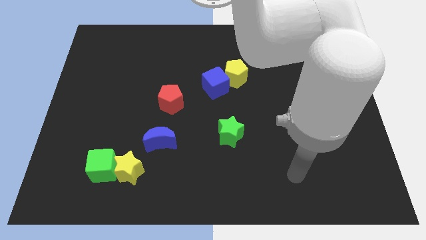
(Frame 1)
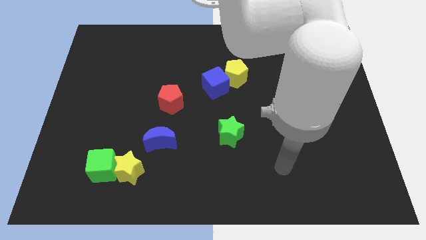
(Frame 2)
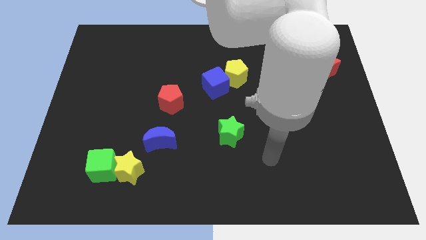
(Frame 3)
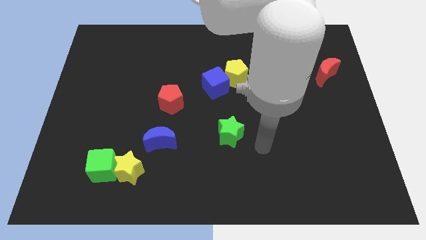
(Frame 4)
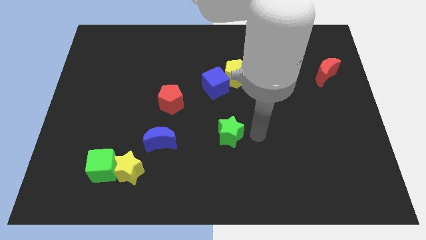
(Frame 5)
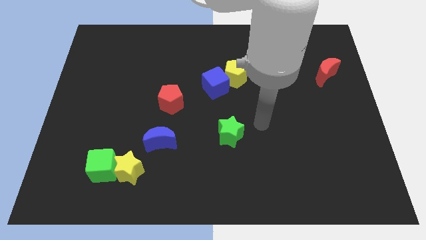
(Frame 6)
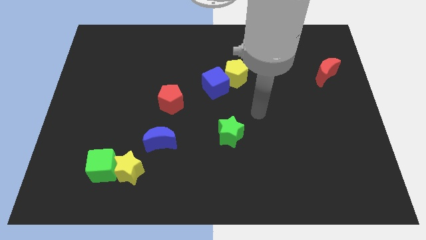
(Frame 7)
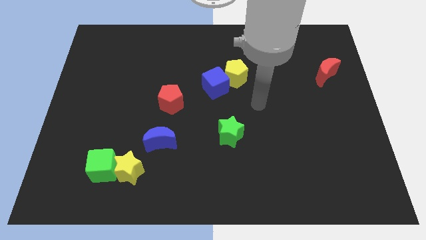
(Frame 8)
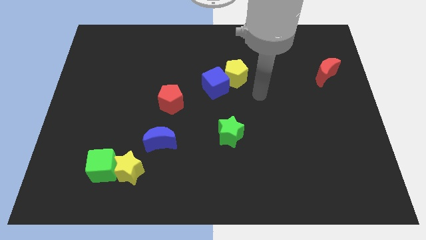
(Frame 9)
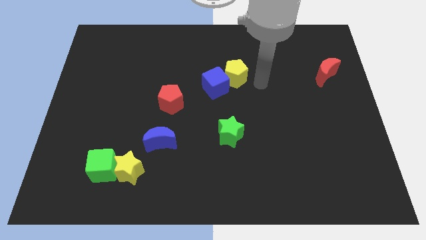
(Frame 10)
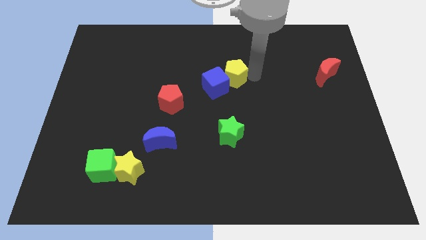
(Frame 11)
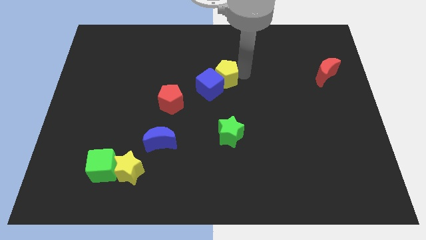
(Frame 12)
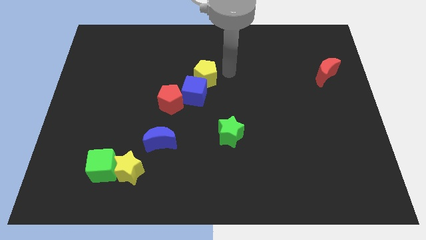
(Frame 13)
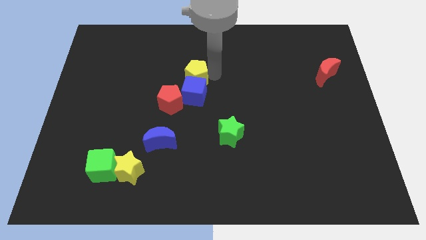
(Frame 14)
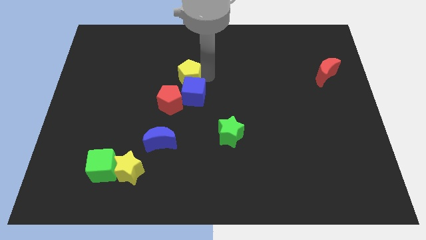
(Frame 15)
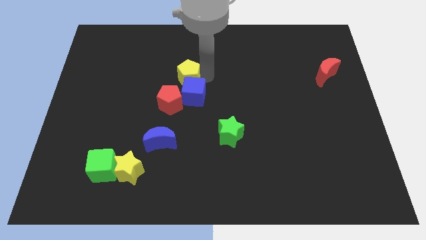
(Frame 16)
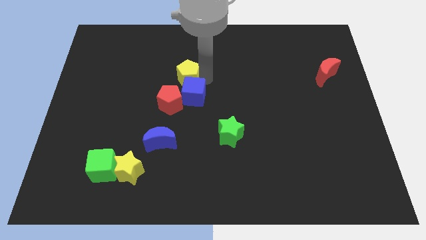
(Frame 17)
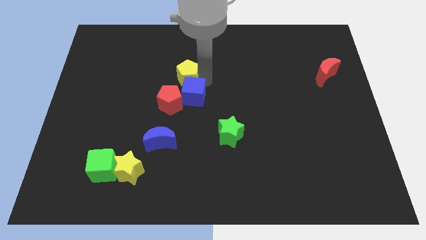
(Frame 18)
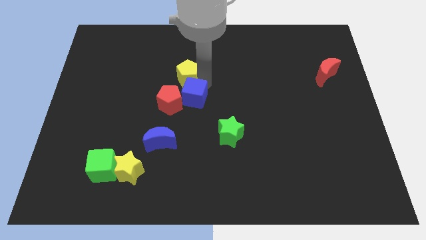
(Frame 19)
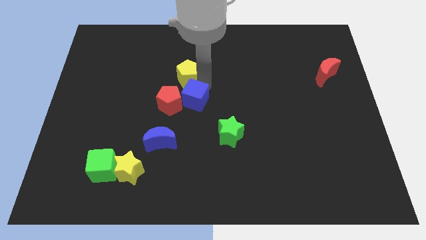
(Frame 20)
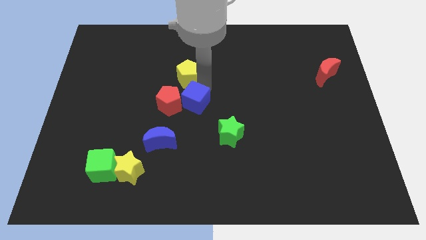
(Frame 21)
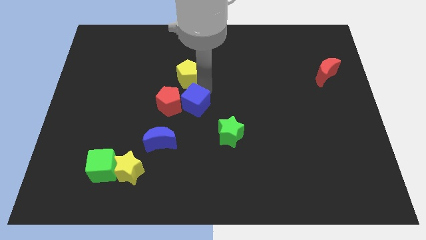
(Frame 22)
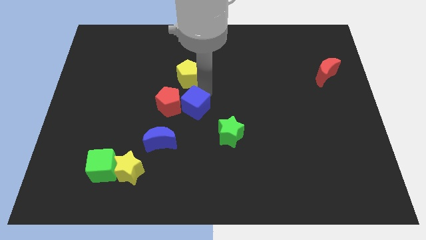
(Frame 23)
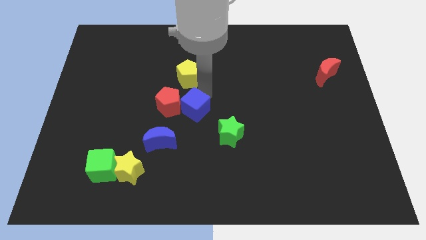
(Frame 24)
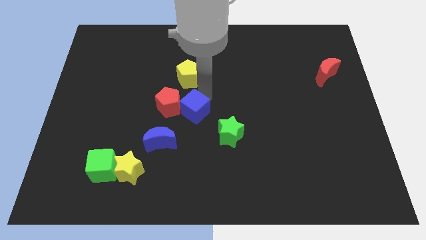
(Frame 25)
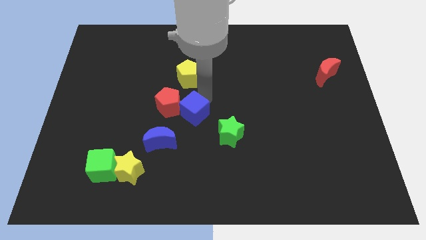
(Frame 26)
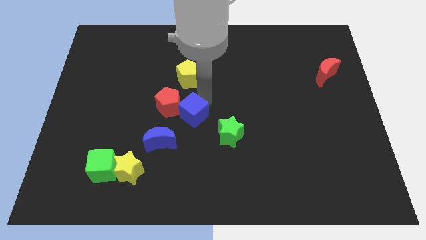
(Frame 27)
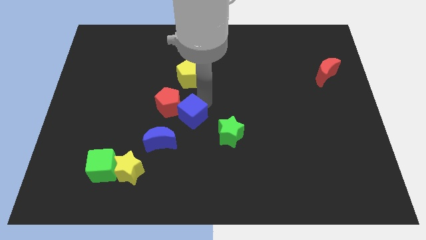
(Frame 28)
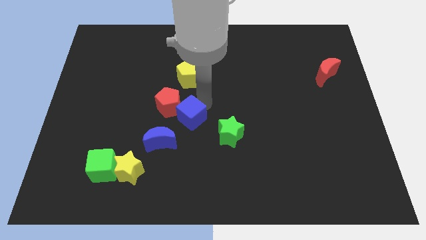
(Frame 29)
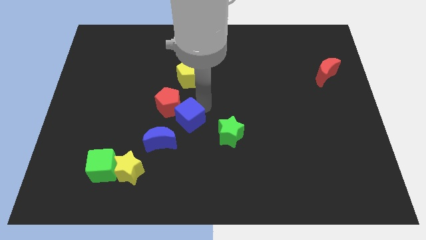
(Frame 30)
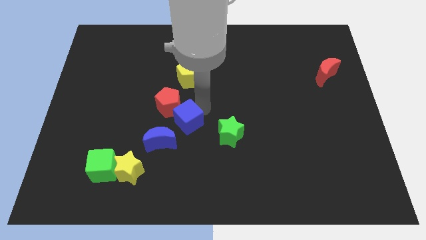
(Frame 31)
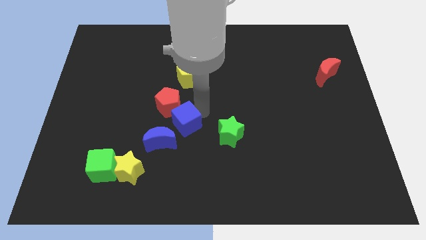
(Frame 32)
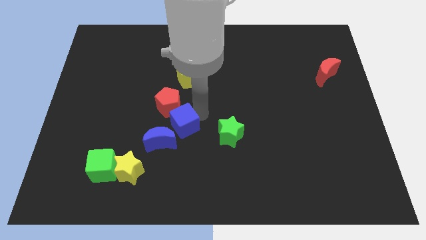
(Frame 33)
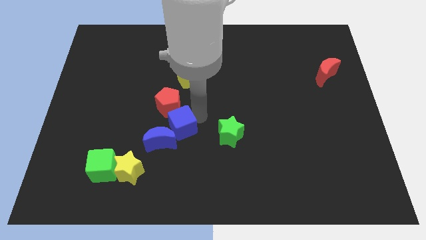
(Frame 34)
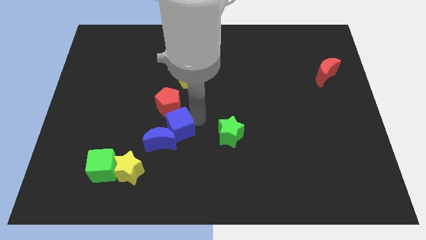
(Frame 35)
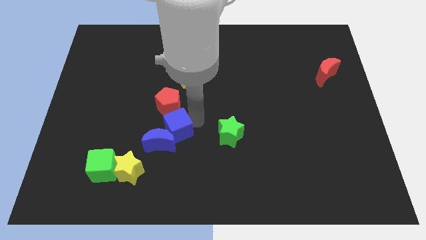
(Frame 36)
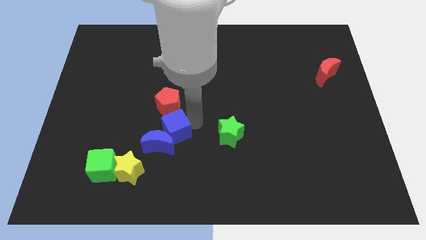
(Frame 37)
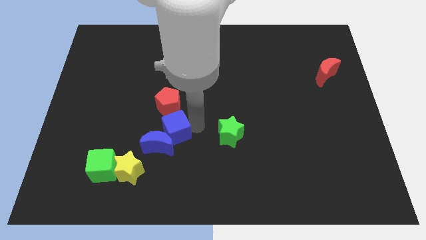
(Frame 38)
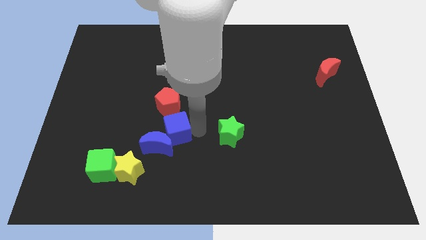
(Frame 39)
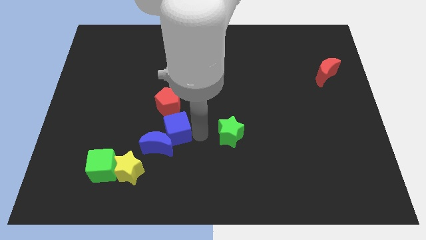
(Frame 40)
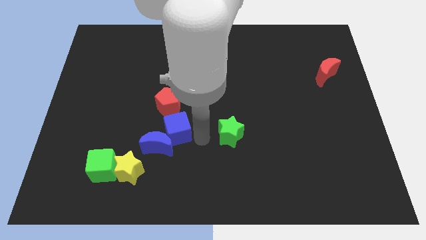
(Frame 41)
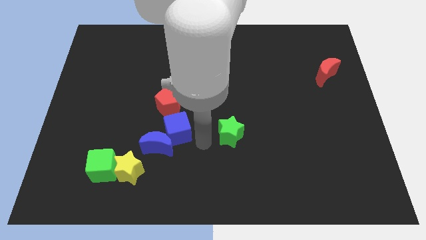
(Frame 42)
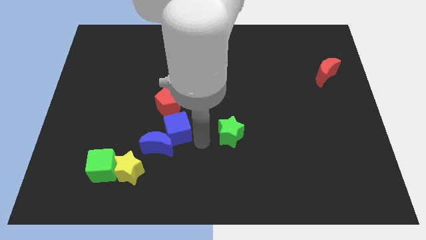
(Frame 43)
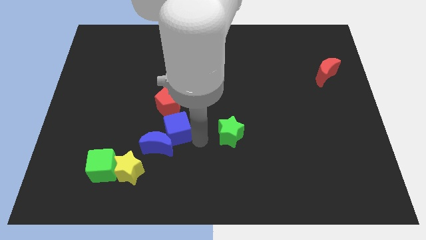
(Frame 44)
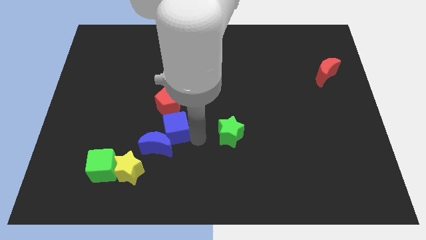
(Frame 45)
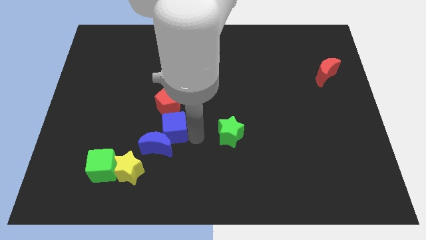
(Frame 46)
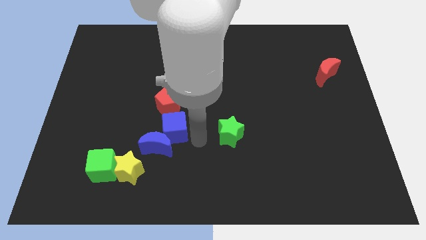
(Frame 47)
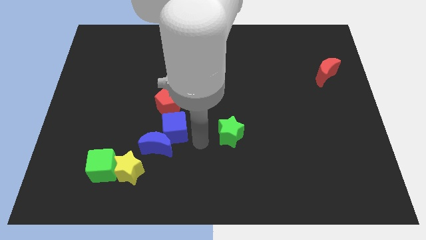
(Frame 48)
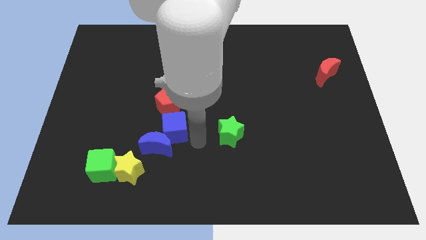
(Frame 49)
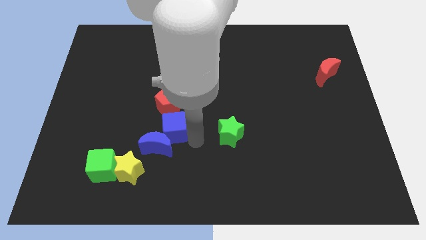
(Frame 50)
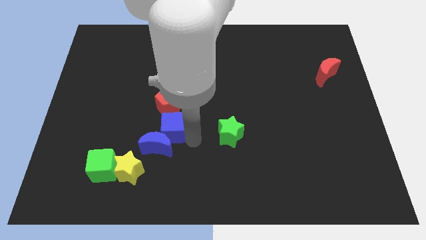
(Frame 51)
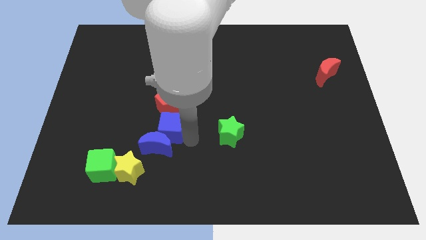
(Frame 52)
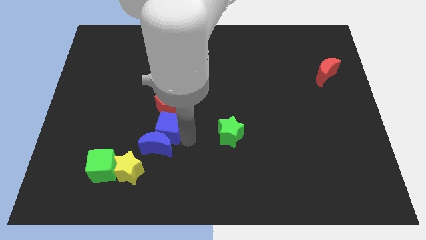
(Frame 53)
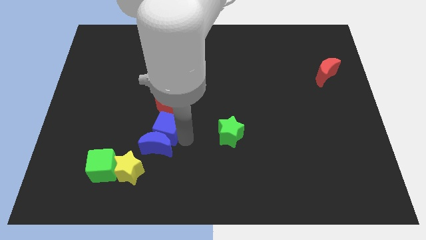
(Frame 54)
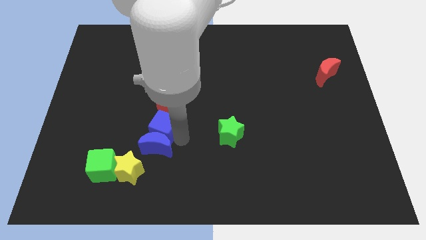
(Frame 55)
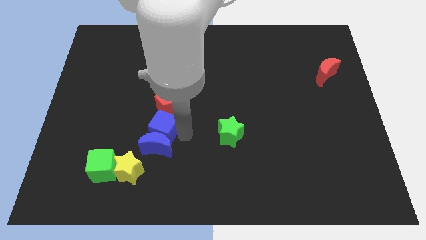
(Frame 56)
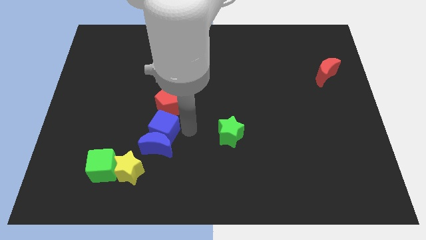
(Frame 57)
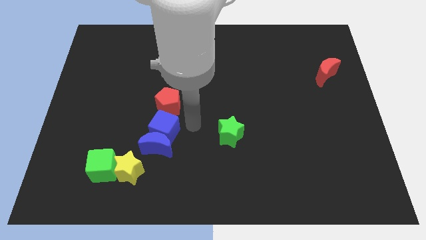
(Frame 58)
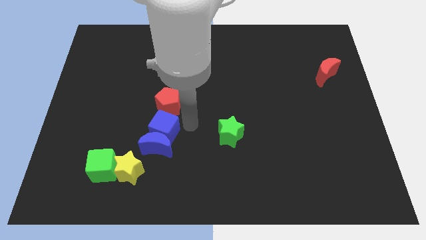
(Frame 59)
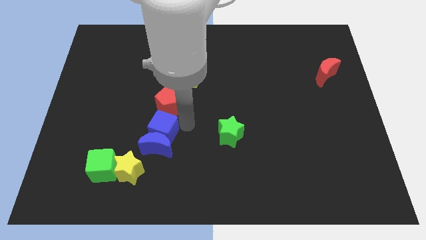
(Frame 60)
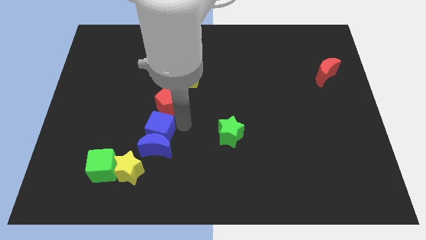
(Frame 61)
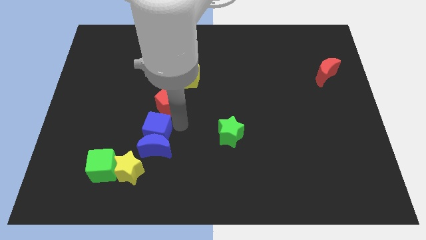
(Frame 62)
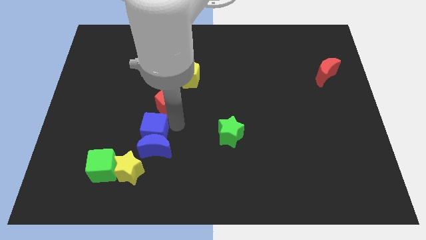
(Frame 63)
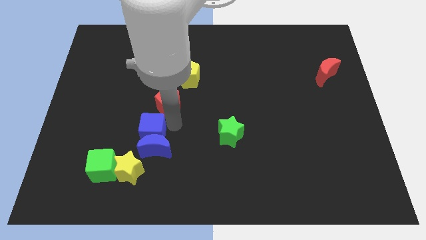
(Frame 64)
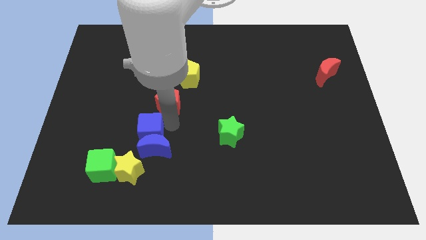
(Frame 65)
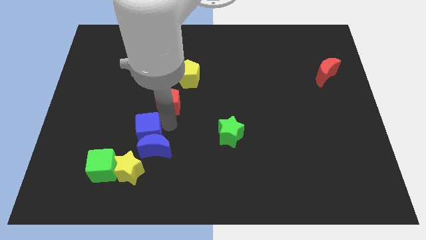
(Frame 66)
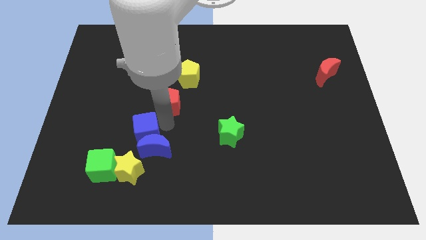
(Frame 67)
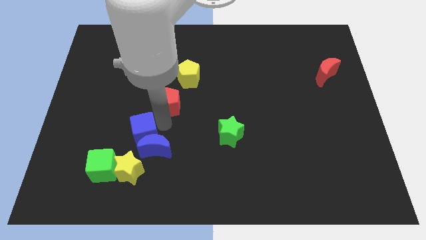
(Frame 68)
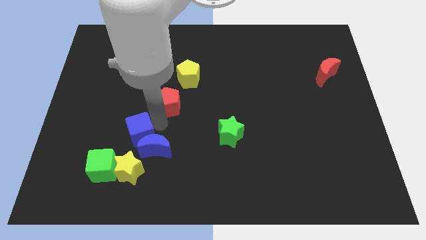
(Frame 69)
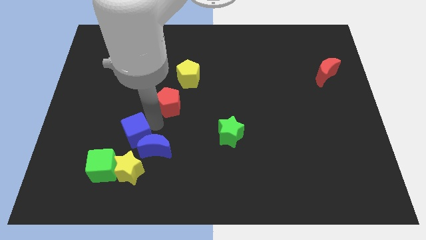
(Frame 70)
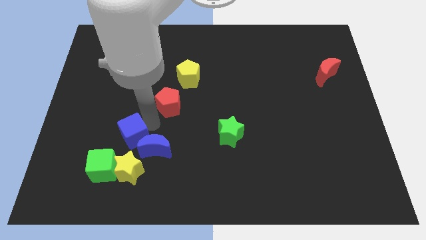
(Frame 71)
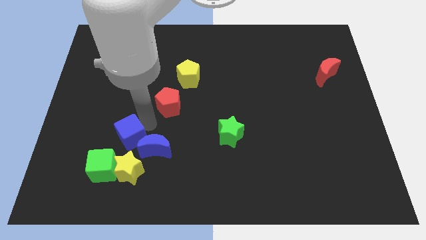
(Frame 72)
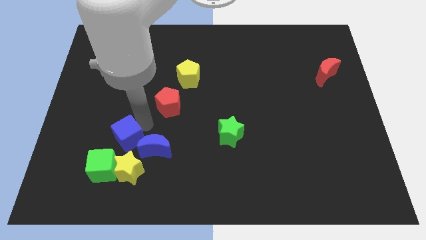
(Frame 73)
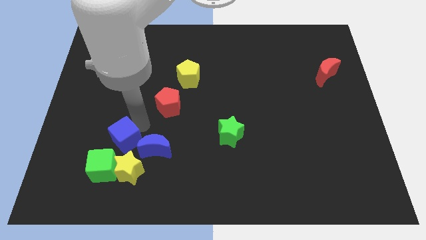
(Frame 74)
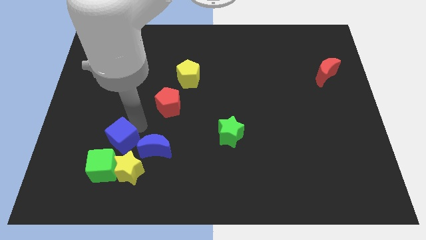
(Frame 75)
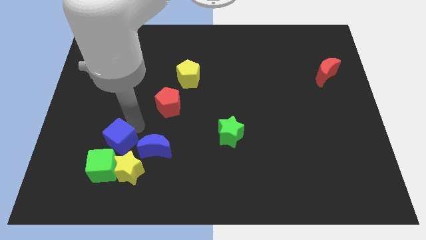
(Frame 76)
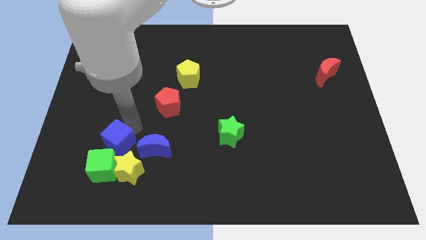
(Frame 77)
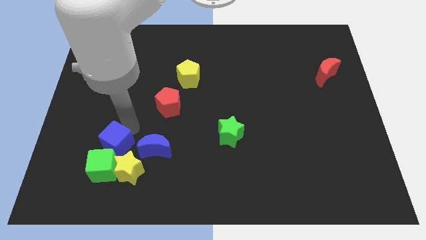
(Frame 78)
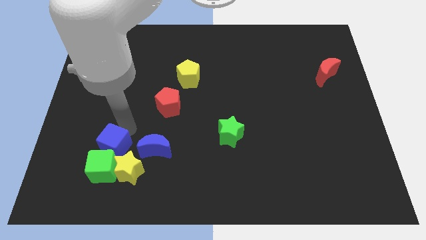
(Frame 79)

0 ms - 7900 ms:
move the blue cube next to the green cube
